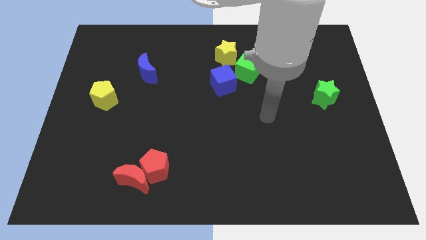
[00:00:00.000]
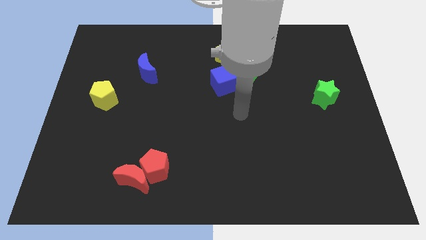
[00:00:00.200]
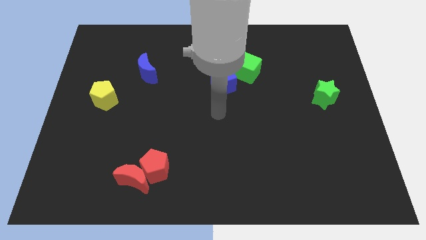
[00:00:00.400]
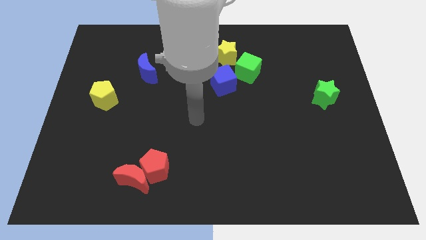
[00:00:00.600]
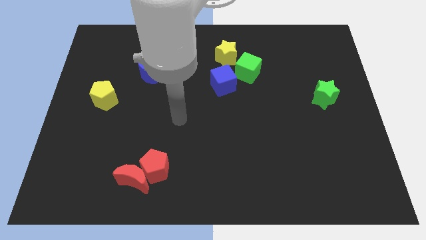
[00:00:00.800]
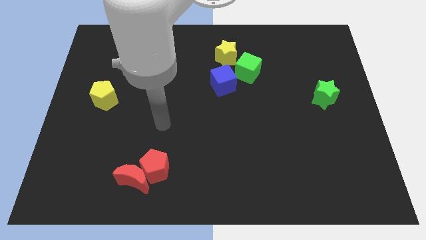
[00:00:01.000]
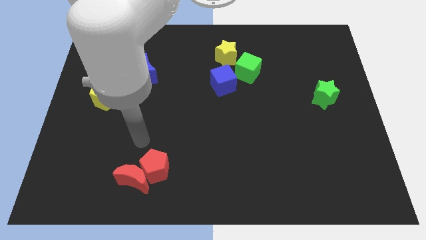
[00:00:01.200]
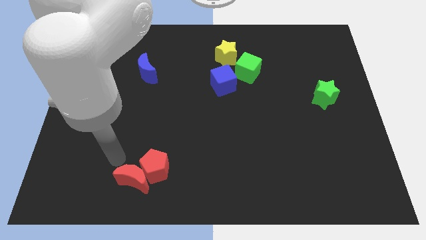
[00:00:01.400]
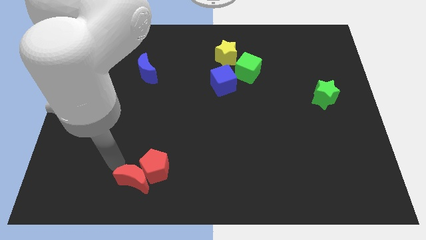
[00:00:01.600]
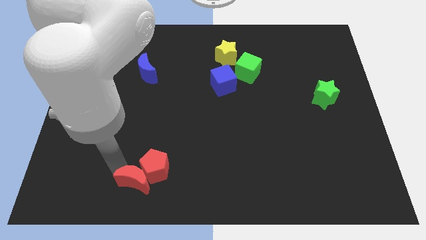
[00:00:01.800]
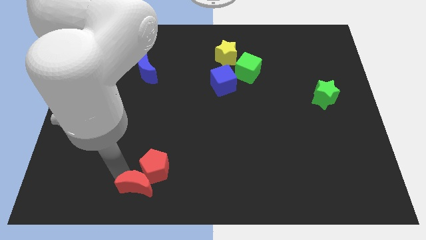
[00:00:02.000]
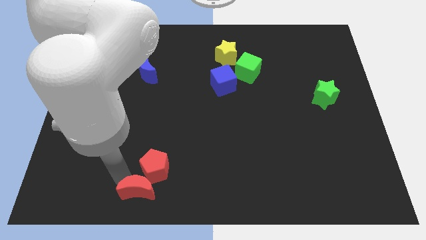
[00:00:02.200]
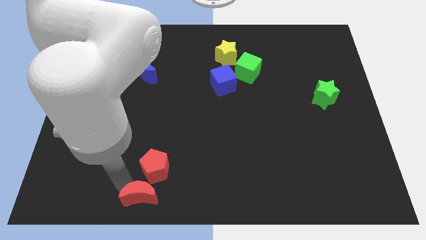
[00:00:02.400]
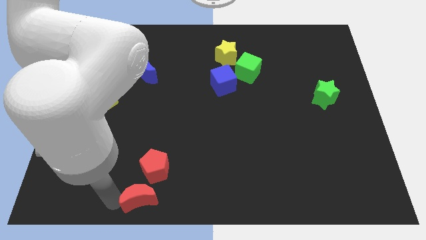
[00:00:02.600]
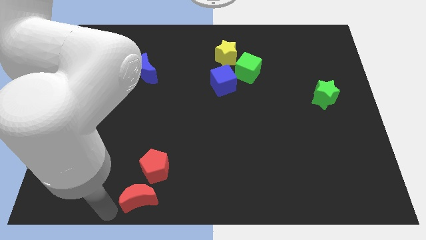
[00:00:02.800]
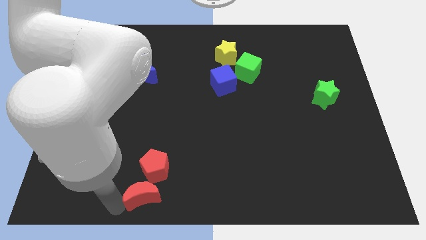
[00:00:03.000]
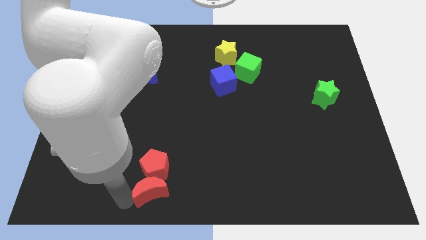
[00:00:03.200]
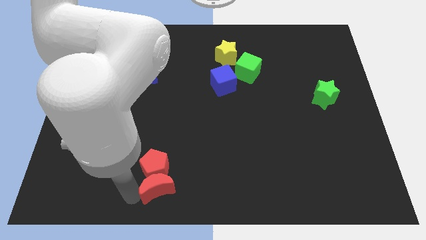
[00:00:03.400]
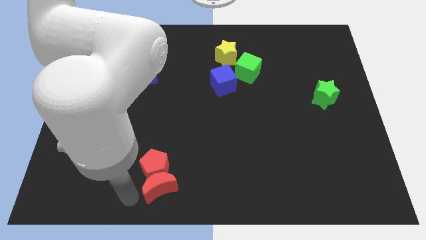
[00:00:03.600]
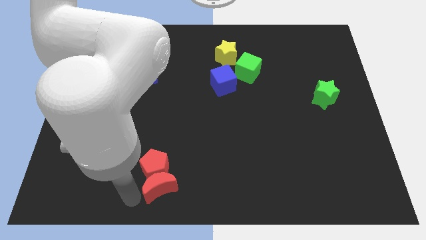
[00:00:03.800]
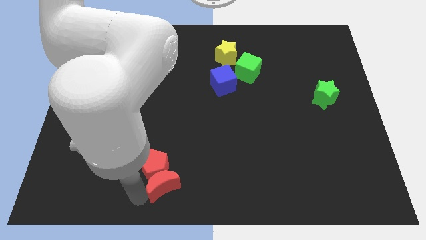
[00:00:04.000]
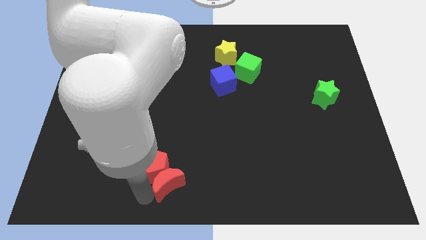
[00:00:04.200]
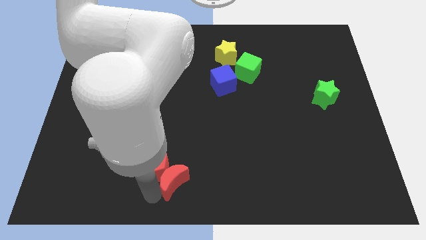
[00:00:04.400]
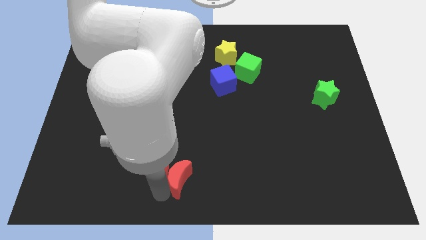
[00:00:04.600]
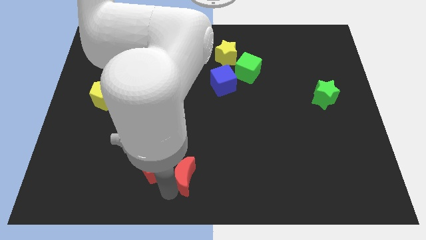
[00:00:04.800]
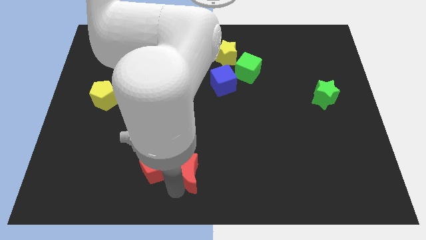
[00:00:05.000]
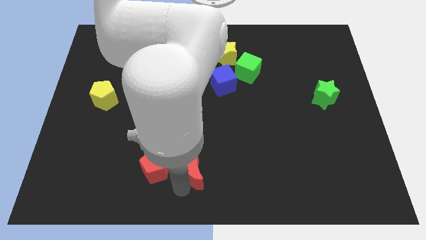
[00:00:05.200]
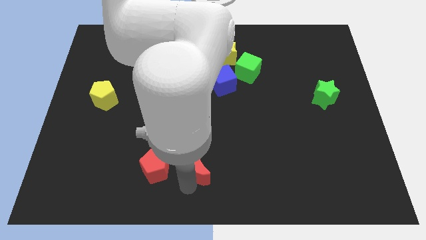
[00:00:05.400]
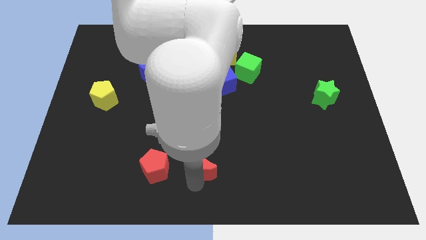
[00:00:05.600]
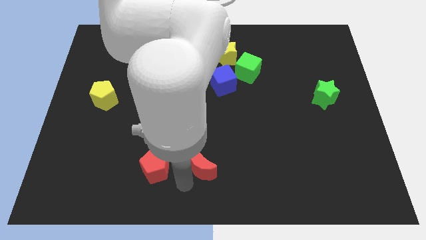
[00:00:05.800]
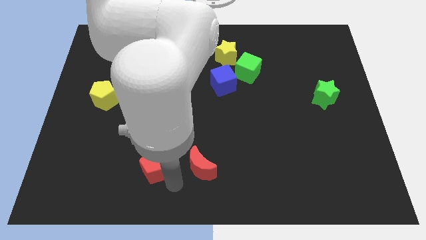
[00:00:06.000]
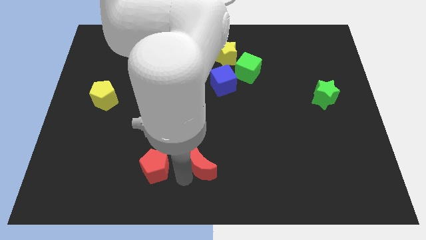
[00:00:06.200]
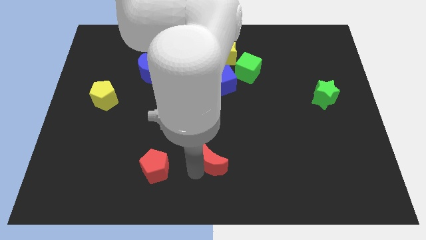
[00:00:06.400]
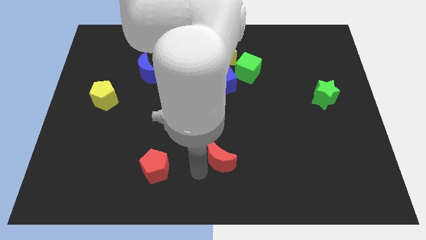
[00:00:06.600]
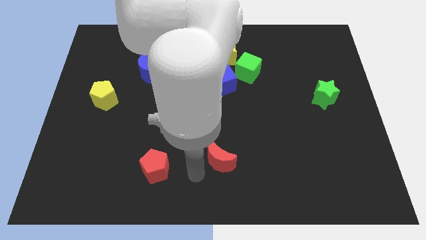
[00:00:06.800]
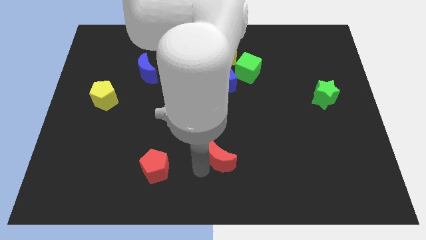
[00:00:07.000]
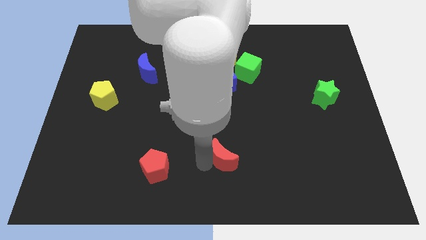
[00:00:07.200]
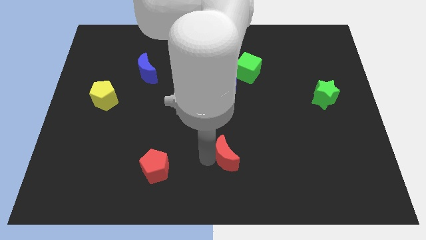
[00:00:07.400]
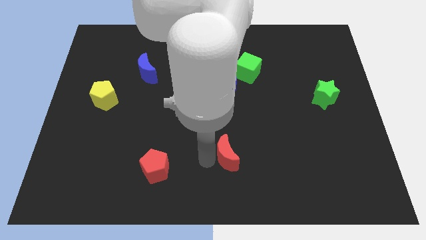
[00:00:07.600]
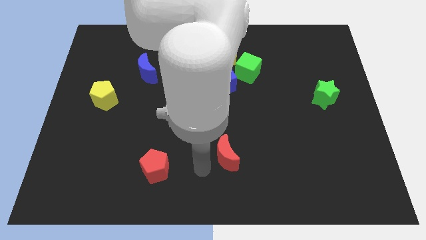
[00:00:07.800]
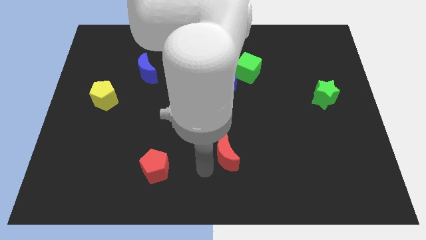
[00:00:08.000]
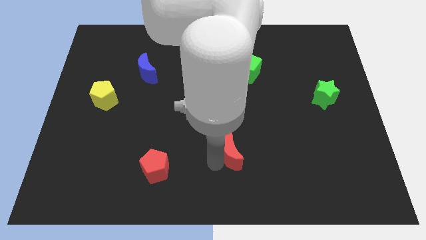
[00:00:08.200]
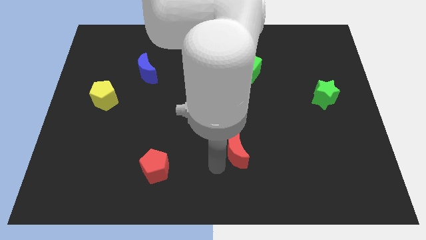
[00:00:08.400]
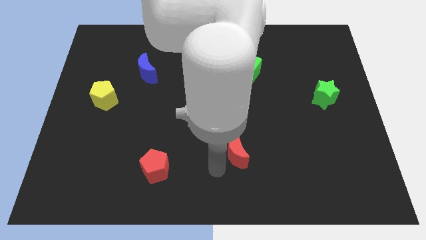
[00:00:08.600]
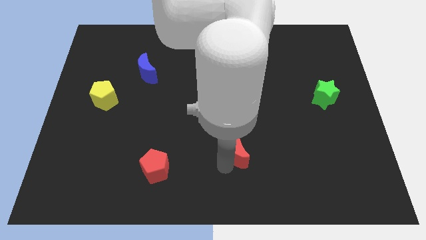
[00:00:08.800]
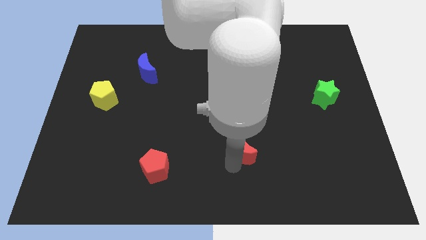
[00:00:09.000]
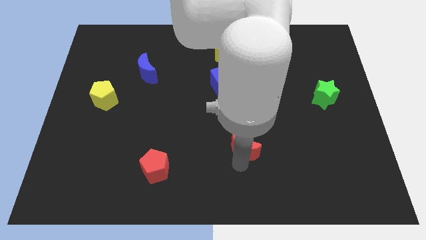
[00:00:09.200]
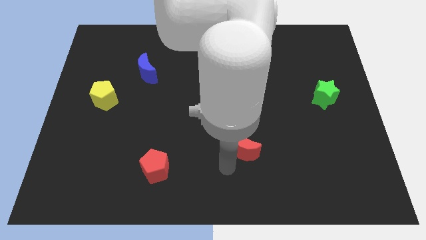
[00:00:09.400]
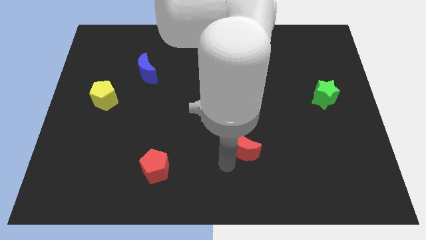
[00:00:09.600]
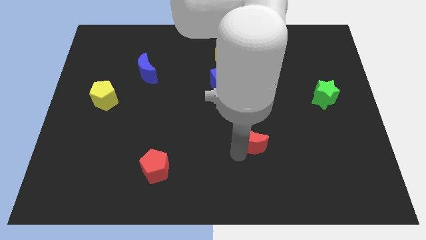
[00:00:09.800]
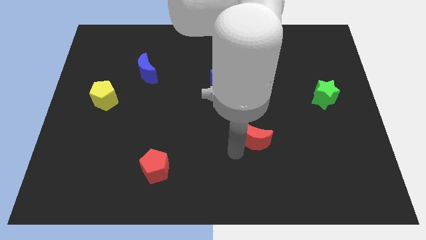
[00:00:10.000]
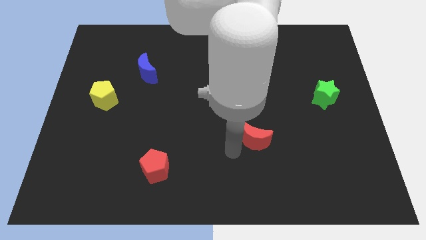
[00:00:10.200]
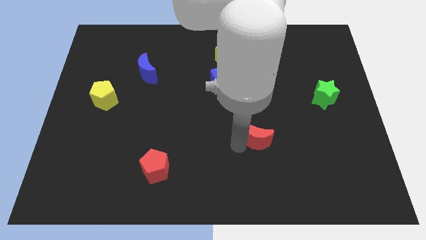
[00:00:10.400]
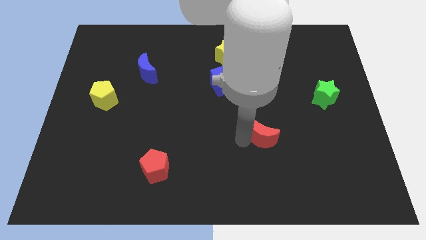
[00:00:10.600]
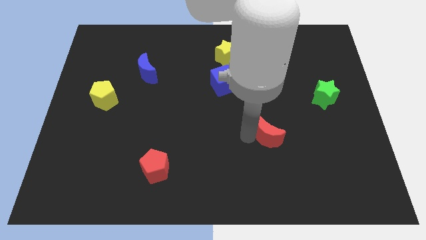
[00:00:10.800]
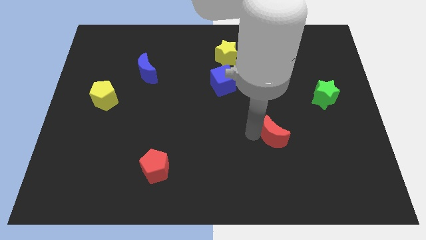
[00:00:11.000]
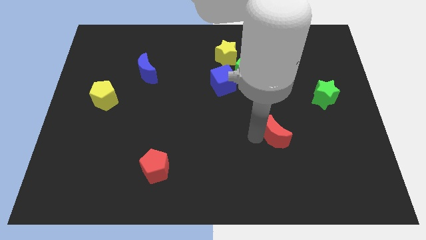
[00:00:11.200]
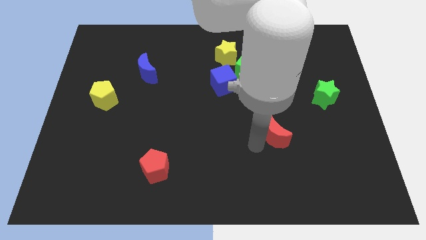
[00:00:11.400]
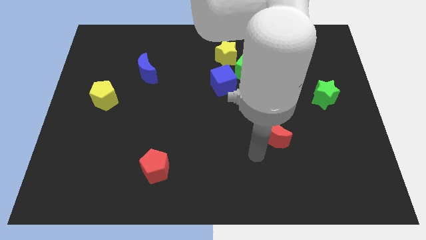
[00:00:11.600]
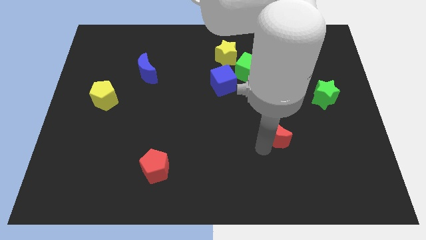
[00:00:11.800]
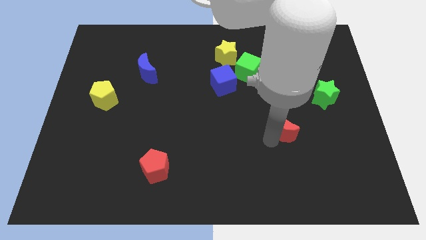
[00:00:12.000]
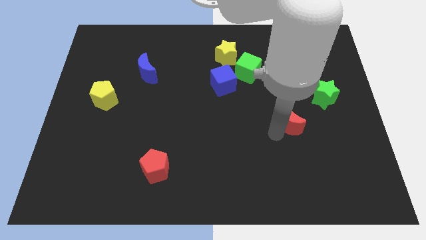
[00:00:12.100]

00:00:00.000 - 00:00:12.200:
slide the red moon to the bottom left side of the green star

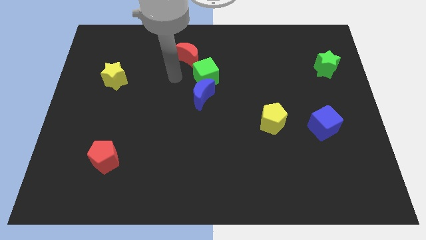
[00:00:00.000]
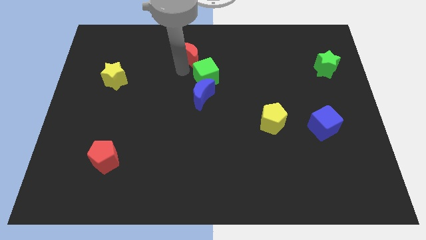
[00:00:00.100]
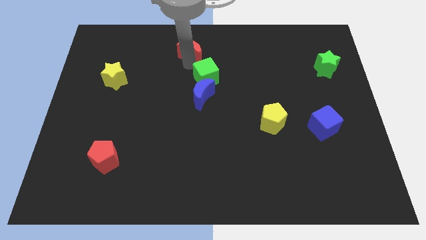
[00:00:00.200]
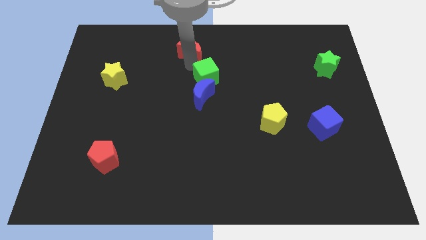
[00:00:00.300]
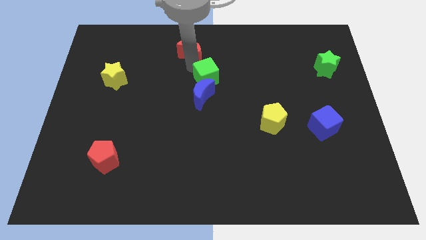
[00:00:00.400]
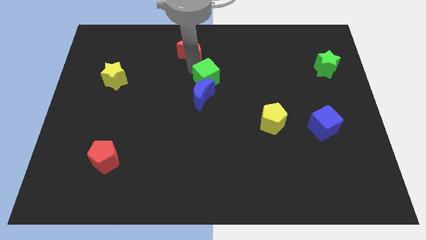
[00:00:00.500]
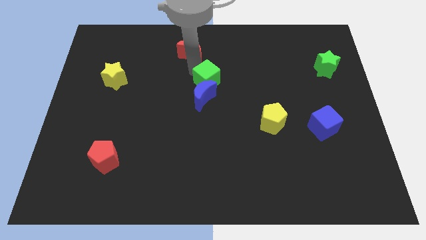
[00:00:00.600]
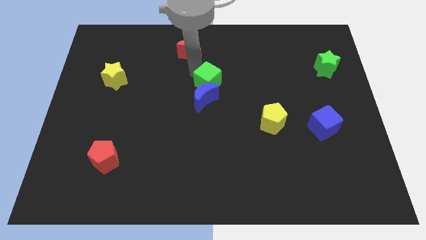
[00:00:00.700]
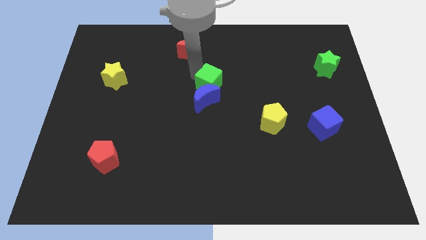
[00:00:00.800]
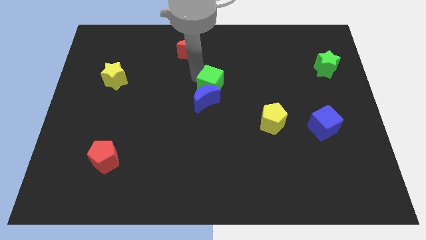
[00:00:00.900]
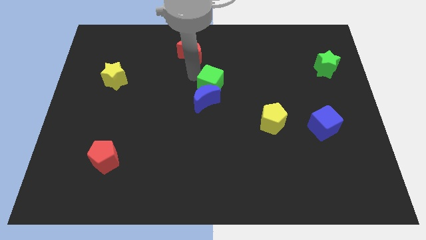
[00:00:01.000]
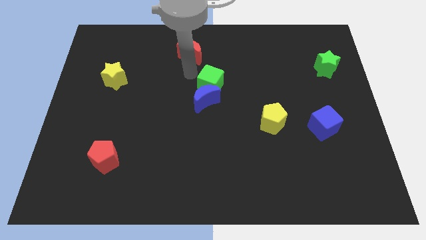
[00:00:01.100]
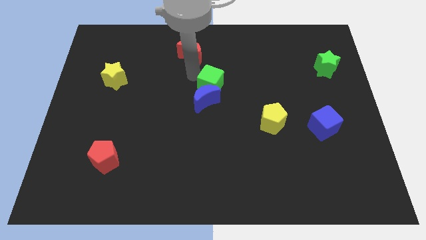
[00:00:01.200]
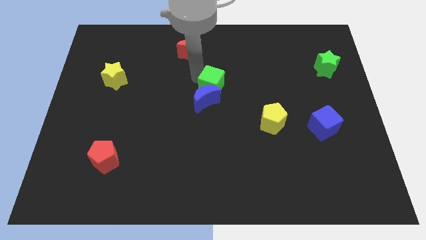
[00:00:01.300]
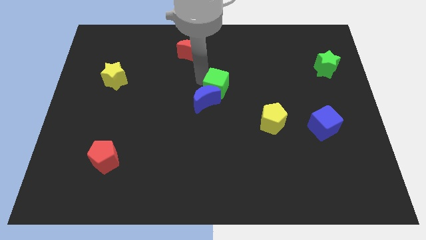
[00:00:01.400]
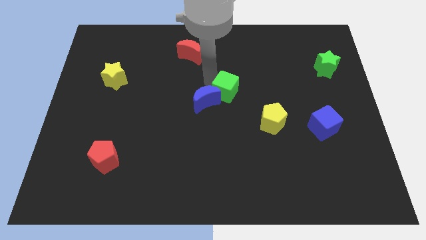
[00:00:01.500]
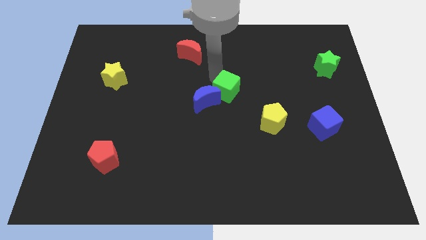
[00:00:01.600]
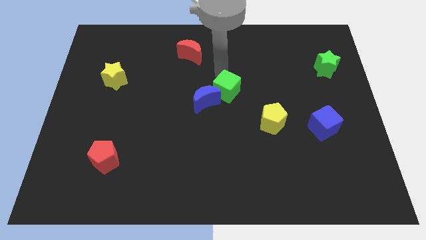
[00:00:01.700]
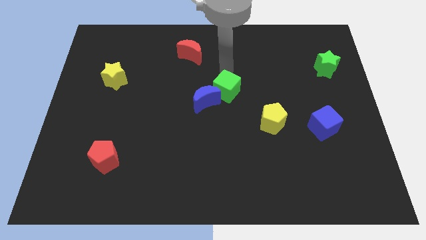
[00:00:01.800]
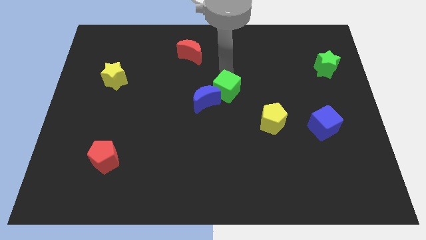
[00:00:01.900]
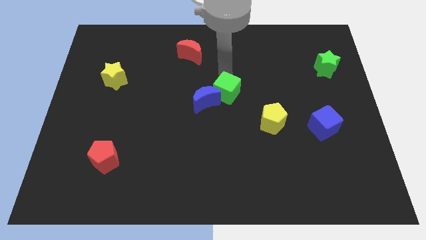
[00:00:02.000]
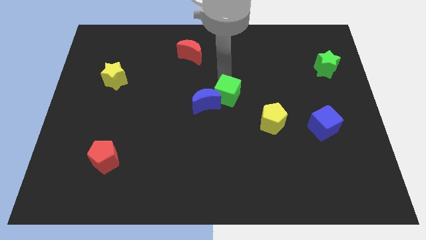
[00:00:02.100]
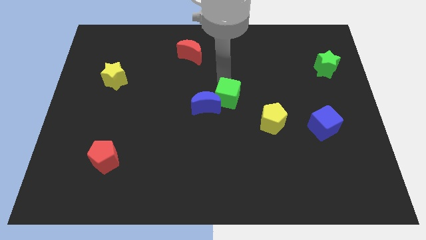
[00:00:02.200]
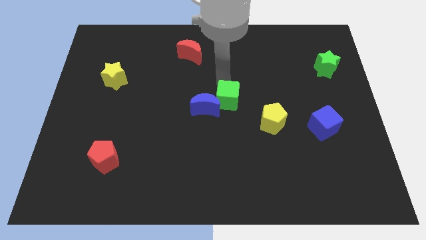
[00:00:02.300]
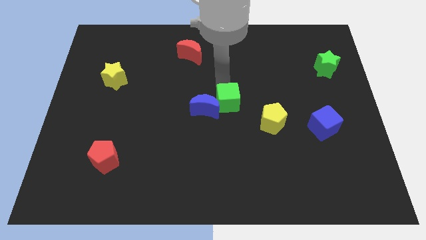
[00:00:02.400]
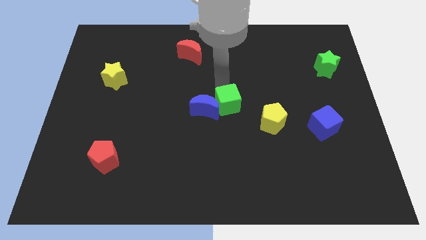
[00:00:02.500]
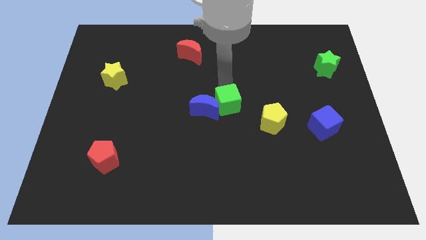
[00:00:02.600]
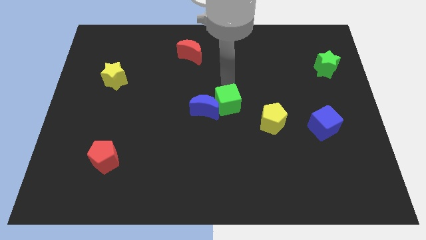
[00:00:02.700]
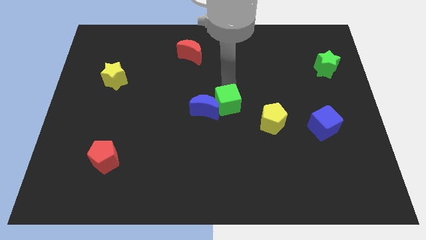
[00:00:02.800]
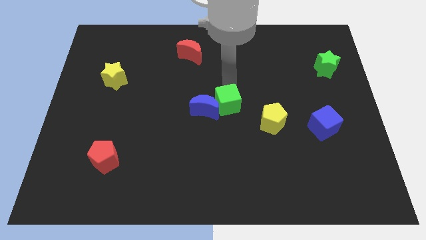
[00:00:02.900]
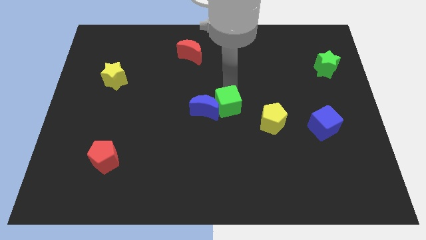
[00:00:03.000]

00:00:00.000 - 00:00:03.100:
slide the green cube diagonally down and to the right of the blue moon
